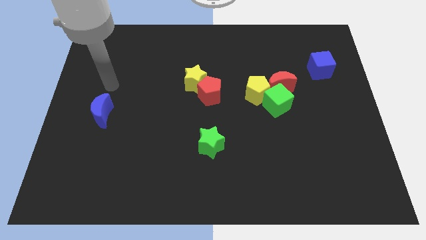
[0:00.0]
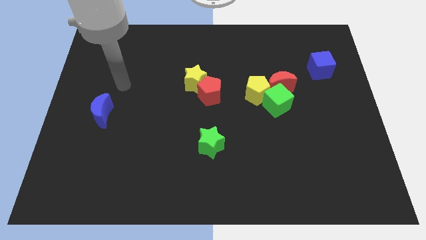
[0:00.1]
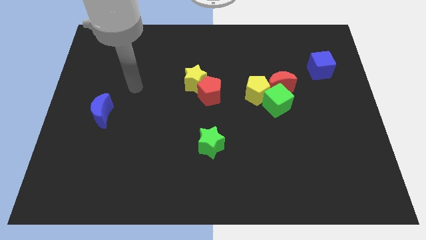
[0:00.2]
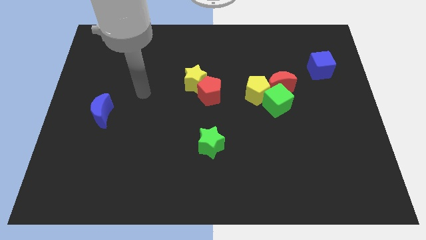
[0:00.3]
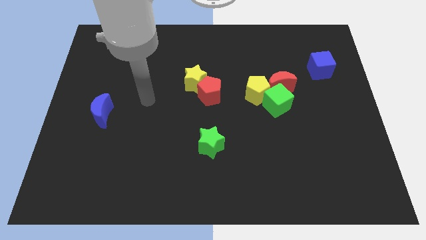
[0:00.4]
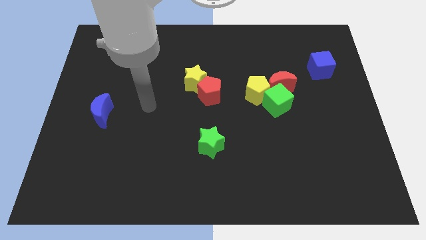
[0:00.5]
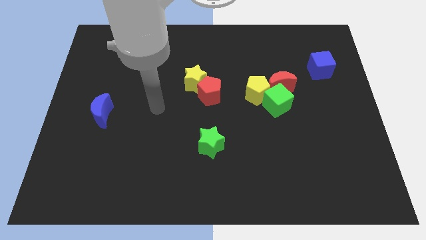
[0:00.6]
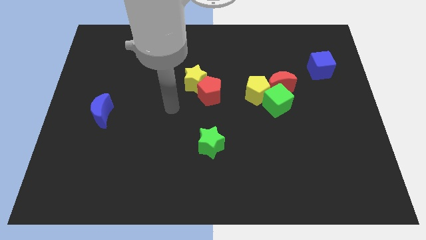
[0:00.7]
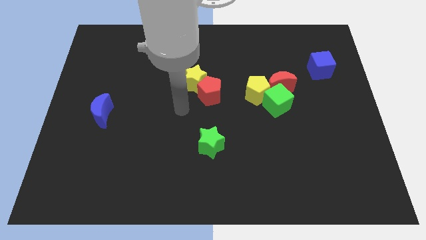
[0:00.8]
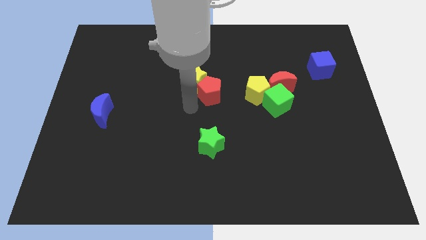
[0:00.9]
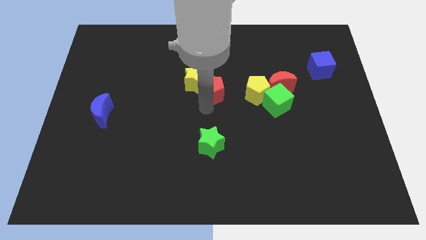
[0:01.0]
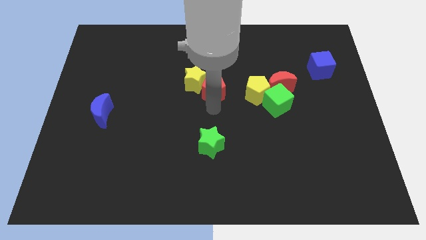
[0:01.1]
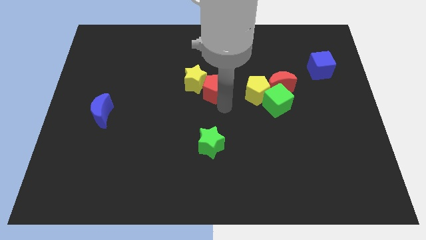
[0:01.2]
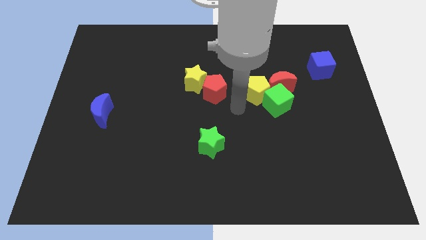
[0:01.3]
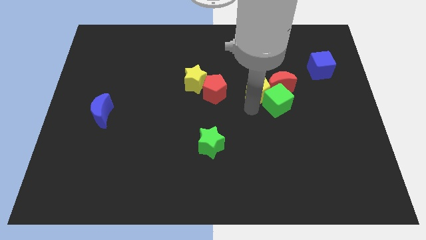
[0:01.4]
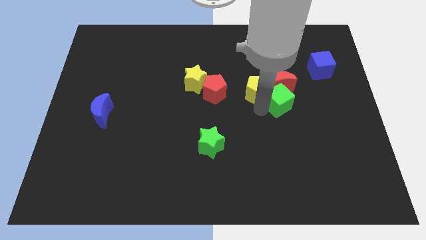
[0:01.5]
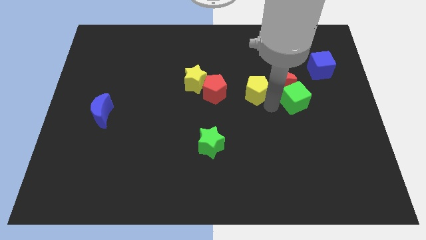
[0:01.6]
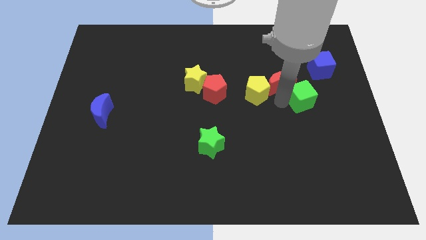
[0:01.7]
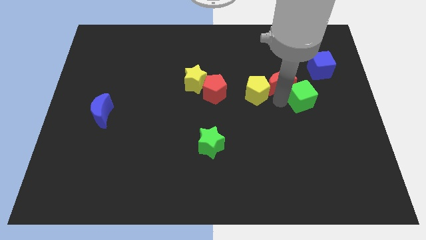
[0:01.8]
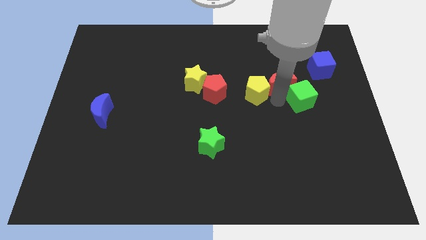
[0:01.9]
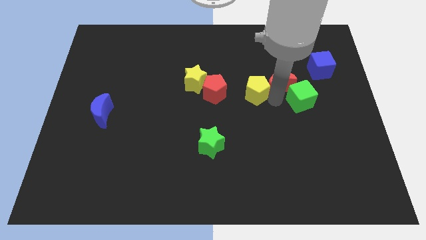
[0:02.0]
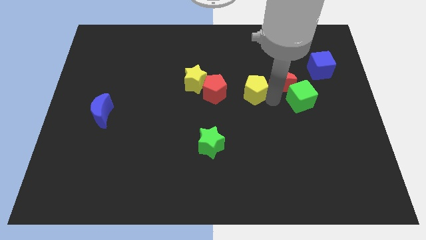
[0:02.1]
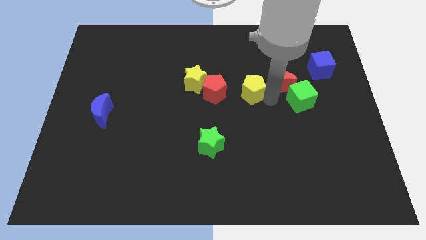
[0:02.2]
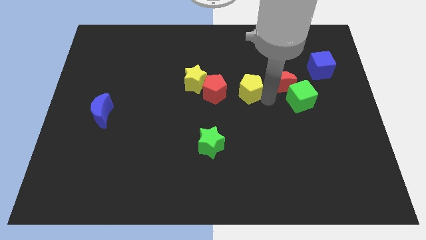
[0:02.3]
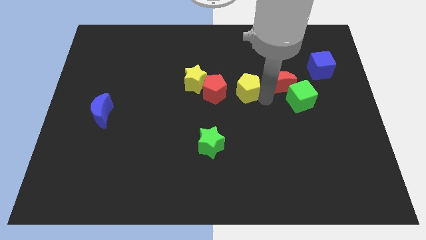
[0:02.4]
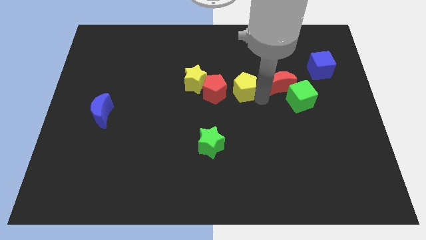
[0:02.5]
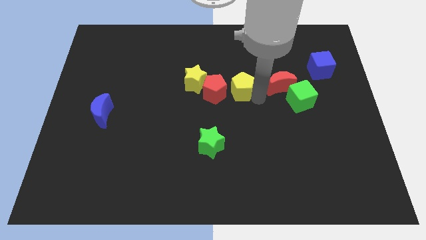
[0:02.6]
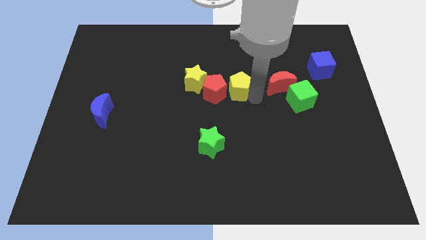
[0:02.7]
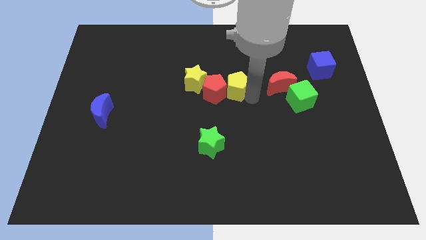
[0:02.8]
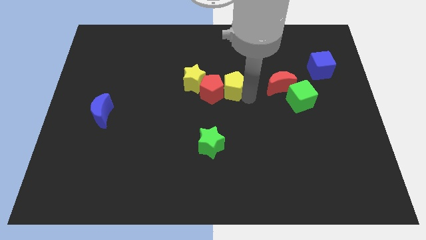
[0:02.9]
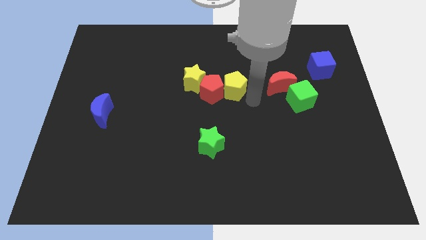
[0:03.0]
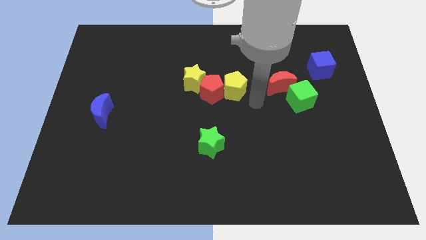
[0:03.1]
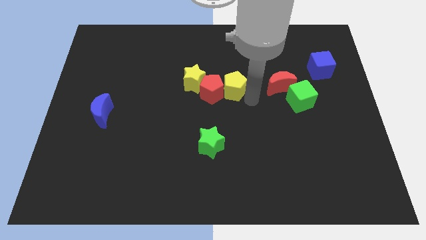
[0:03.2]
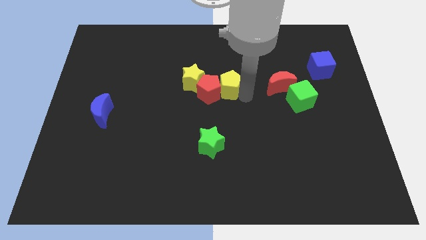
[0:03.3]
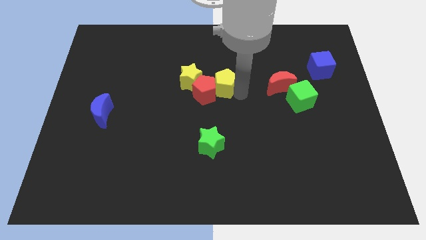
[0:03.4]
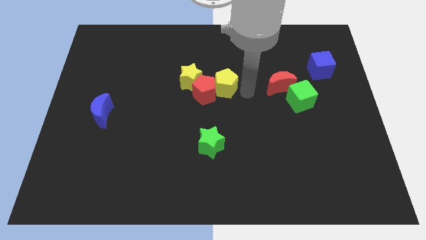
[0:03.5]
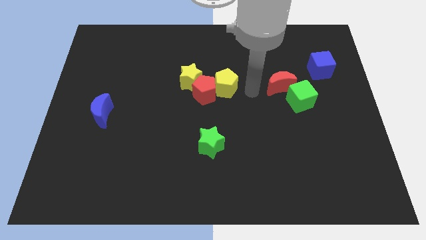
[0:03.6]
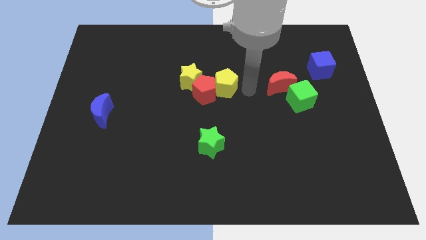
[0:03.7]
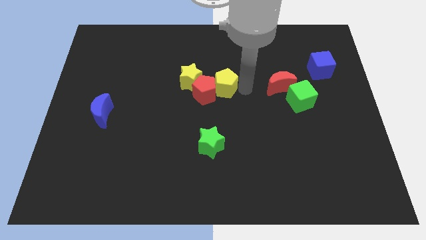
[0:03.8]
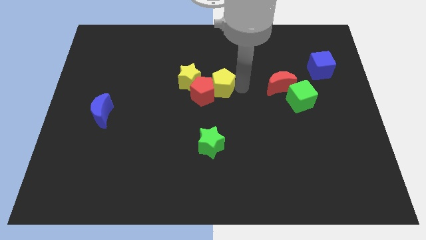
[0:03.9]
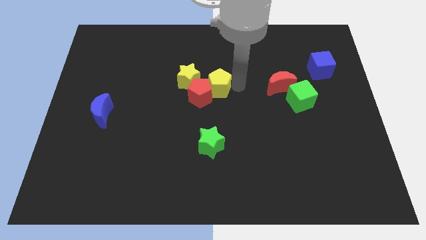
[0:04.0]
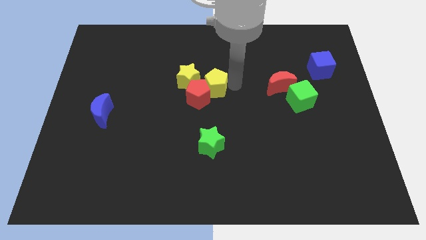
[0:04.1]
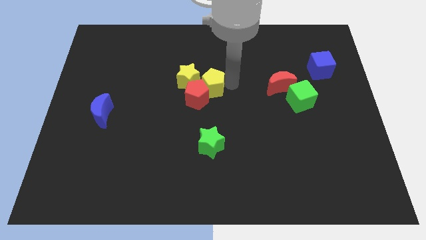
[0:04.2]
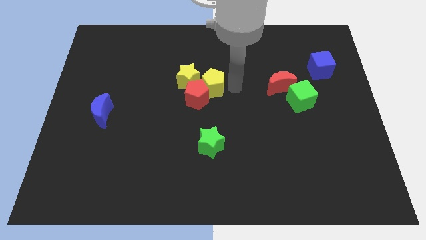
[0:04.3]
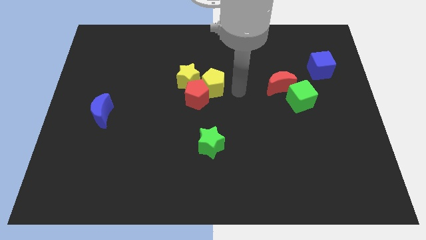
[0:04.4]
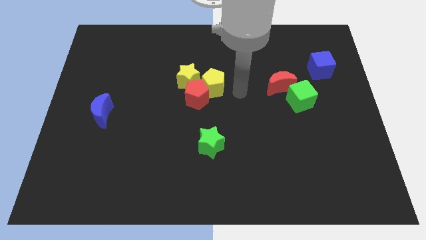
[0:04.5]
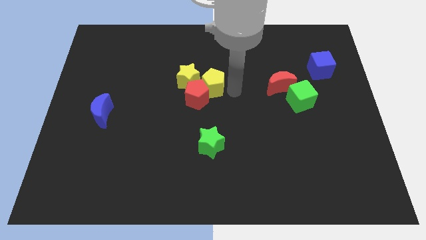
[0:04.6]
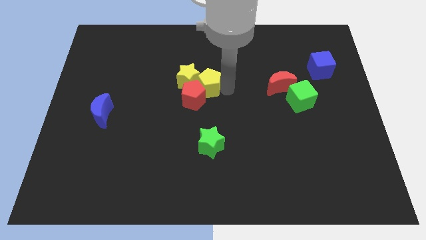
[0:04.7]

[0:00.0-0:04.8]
push the yellow pentagon next to the yellow star

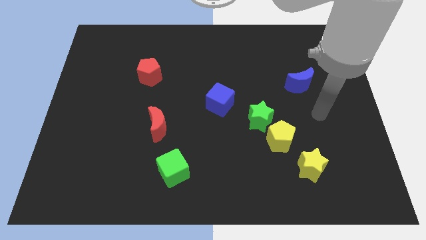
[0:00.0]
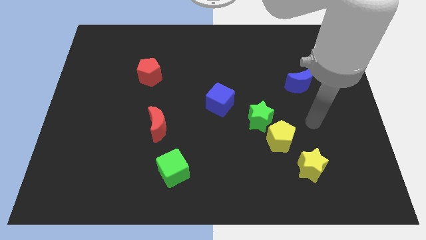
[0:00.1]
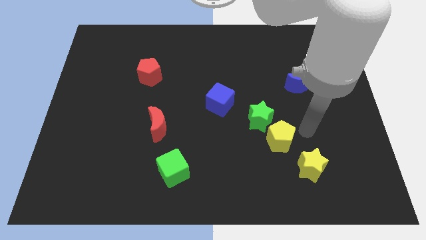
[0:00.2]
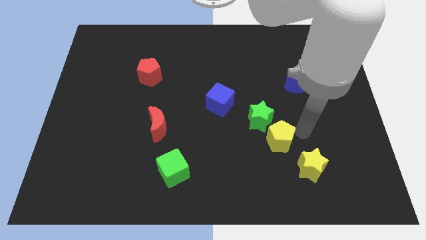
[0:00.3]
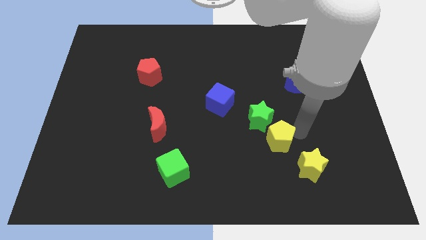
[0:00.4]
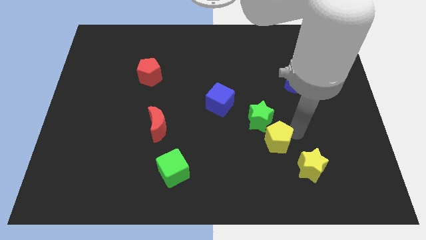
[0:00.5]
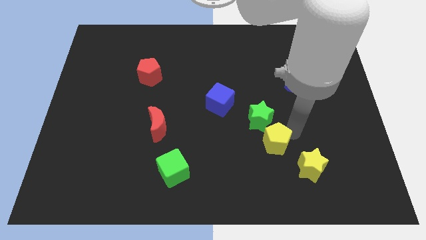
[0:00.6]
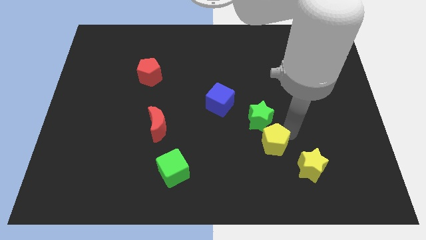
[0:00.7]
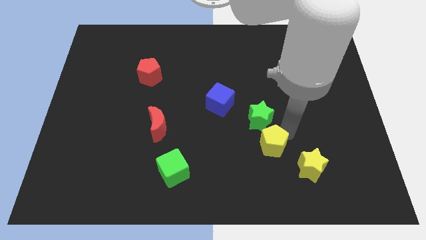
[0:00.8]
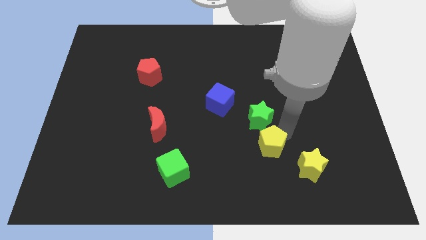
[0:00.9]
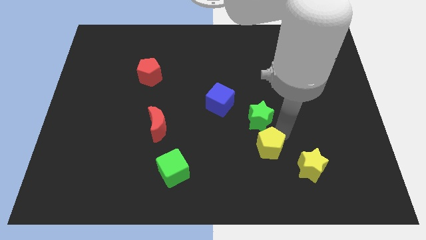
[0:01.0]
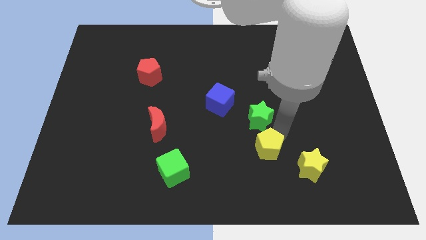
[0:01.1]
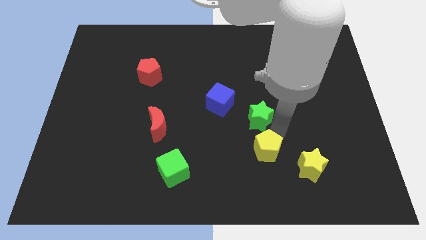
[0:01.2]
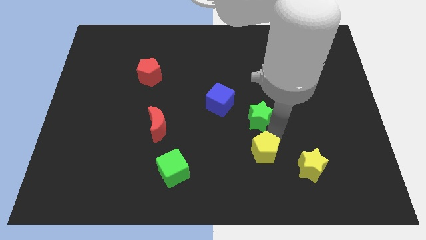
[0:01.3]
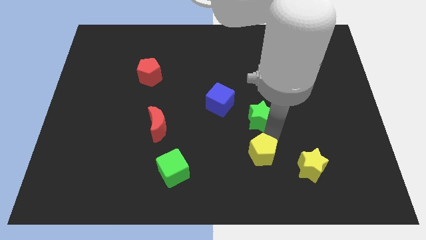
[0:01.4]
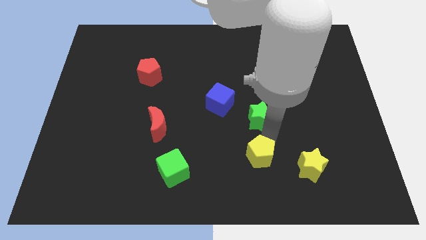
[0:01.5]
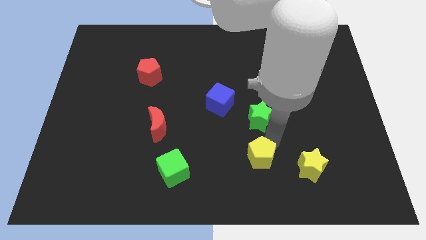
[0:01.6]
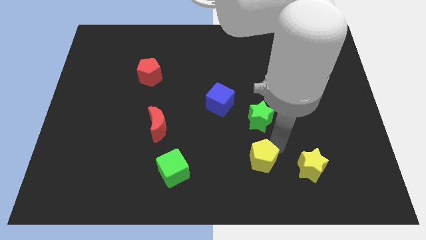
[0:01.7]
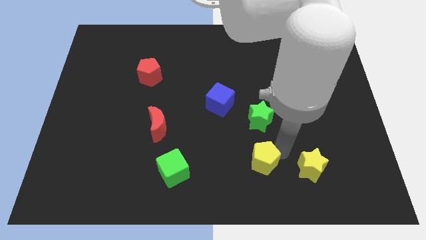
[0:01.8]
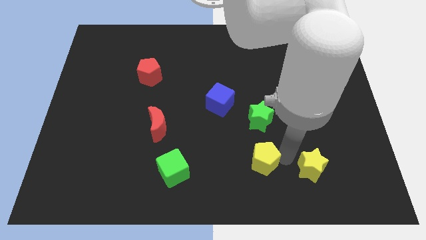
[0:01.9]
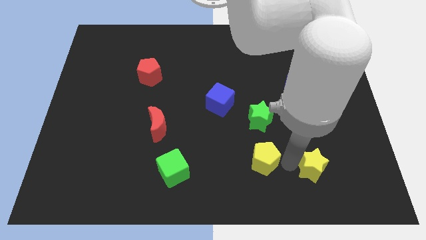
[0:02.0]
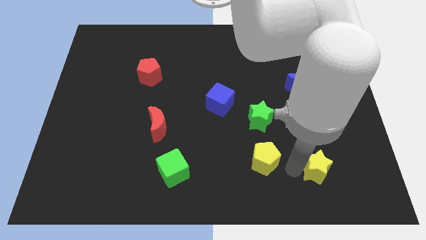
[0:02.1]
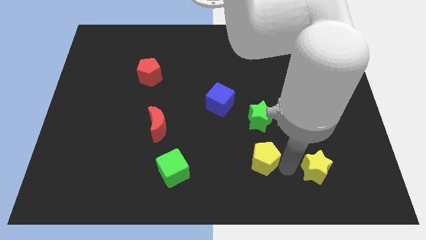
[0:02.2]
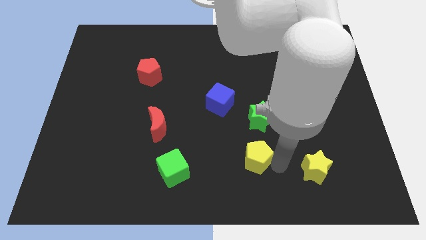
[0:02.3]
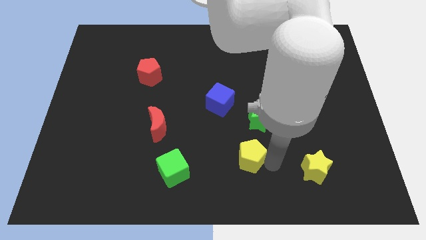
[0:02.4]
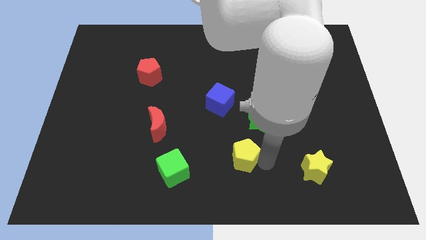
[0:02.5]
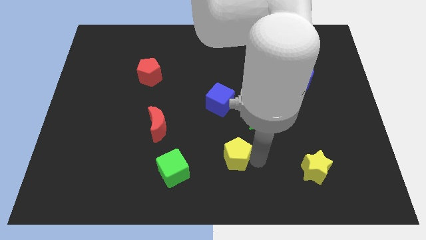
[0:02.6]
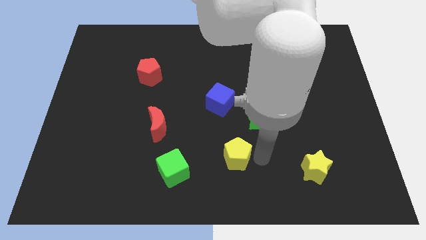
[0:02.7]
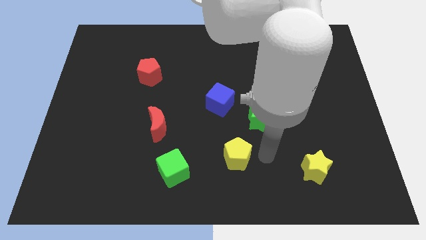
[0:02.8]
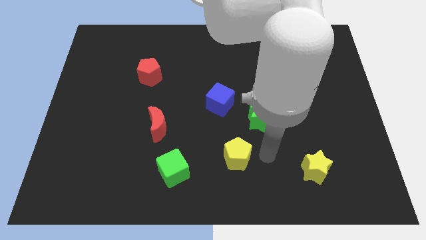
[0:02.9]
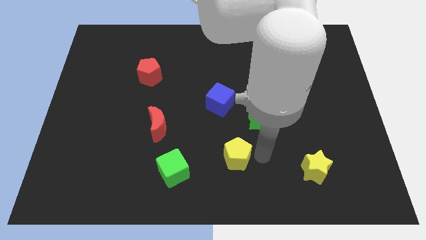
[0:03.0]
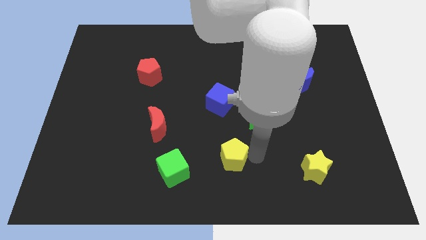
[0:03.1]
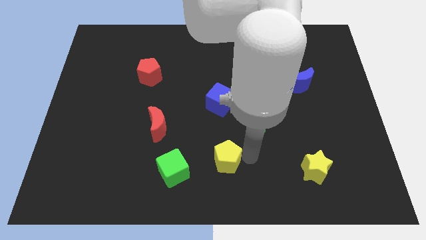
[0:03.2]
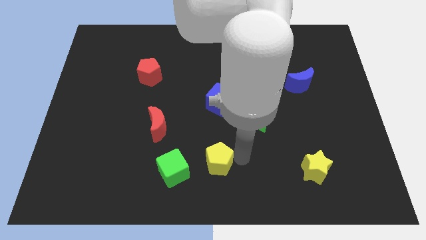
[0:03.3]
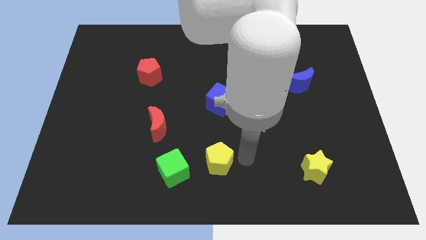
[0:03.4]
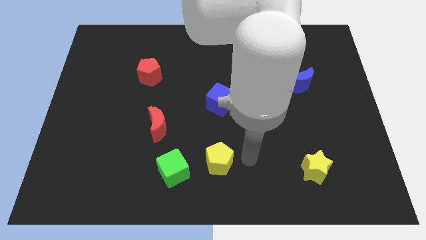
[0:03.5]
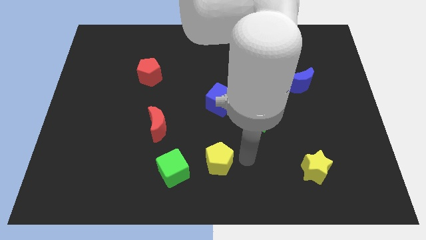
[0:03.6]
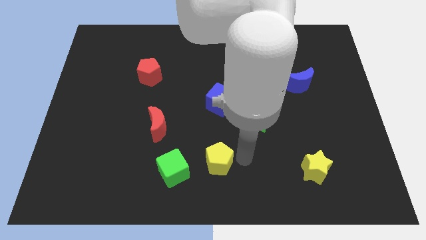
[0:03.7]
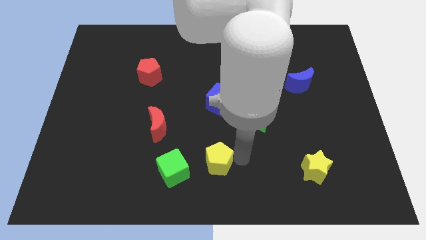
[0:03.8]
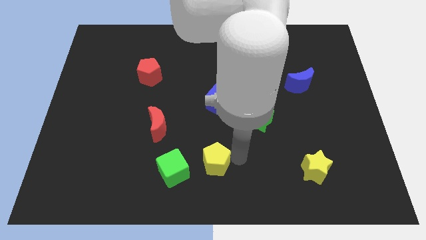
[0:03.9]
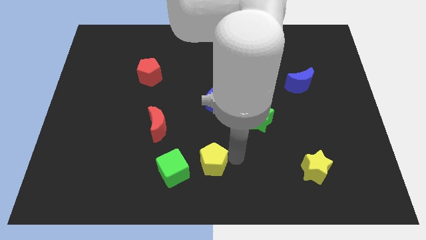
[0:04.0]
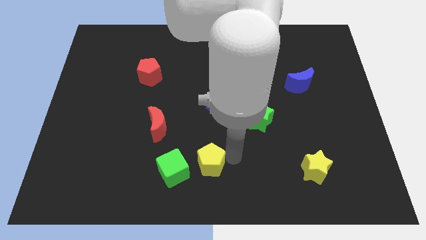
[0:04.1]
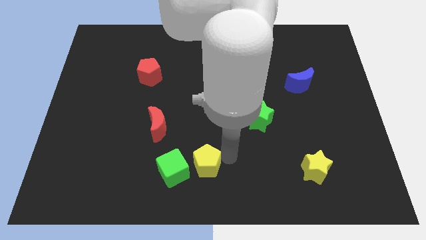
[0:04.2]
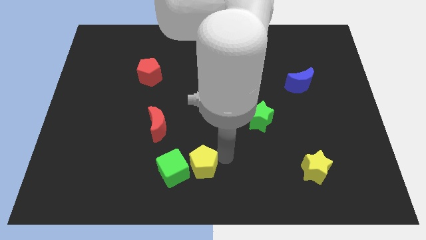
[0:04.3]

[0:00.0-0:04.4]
slide the yellow pentagon to the green cube
